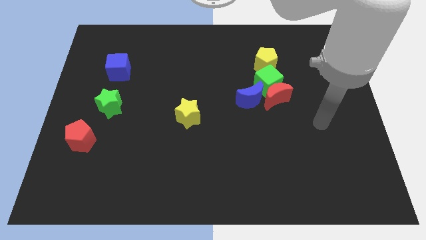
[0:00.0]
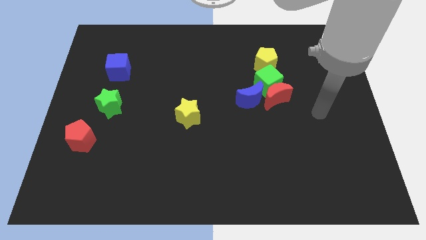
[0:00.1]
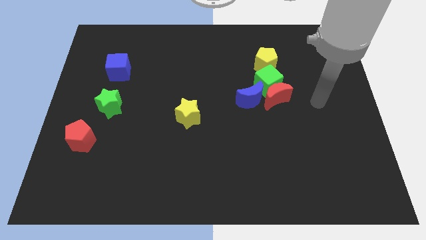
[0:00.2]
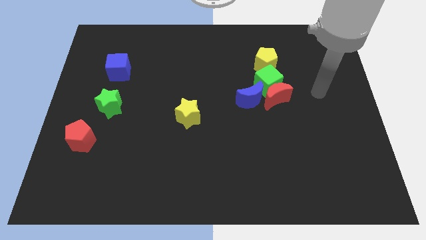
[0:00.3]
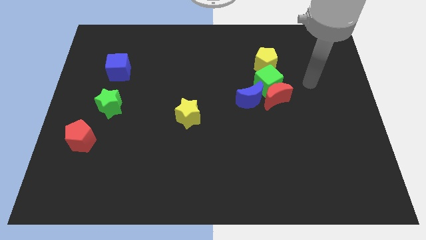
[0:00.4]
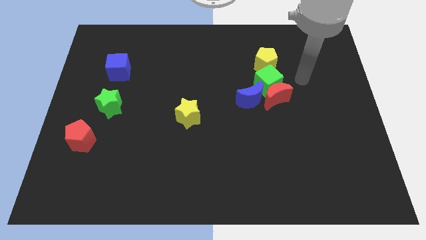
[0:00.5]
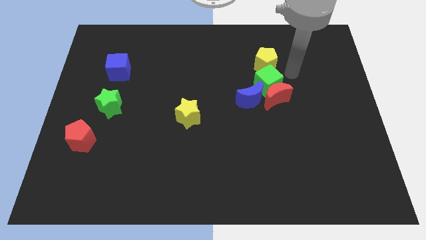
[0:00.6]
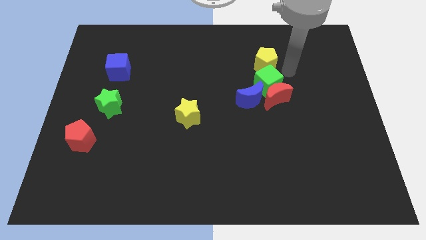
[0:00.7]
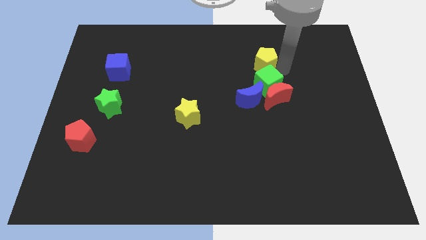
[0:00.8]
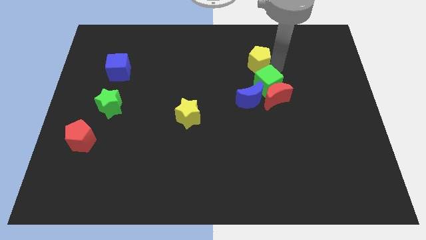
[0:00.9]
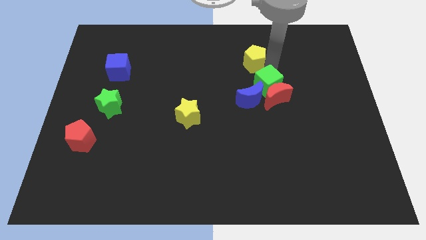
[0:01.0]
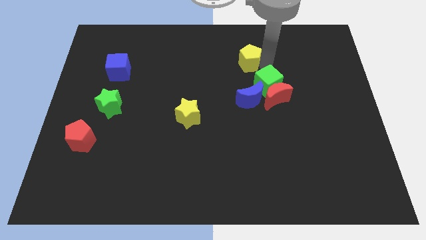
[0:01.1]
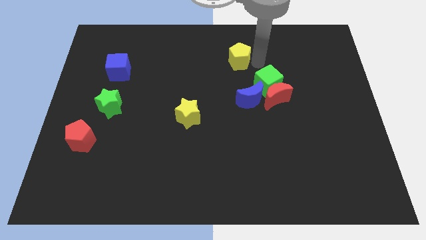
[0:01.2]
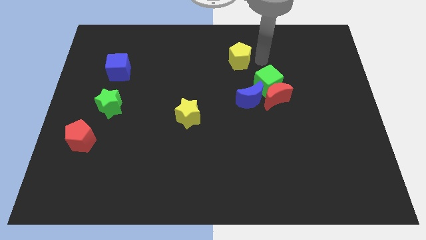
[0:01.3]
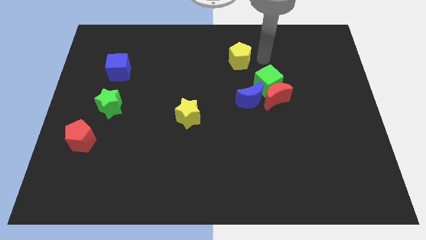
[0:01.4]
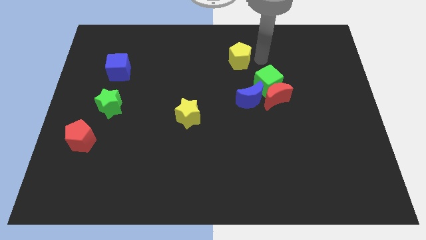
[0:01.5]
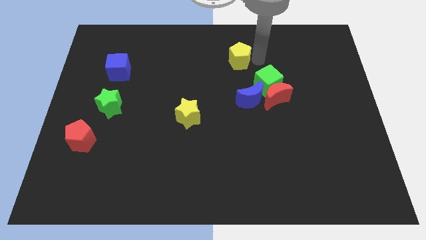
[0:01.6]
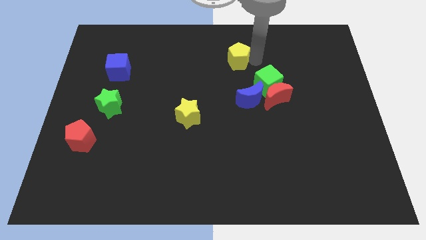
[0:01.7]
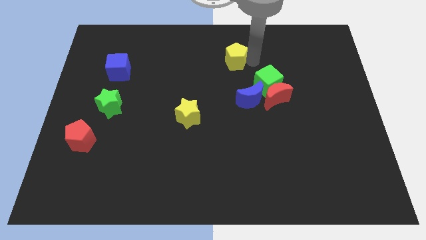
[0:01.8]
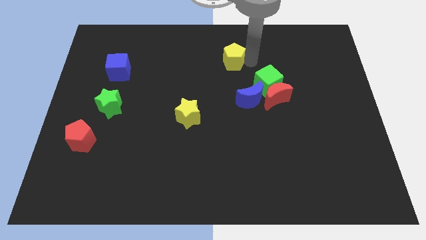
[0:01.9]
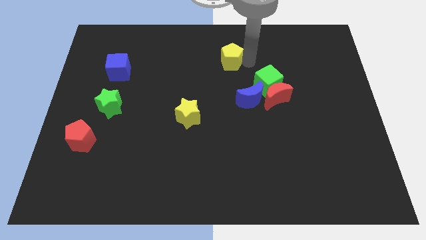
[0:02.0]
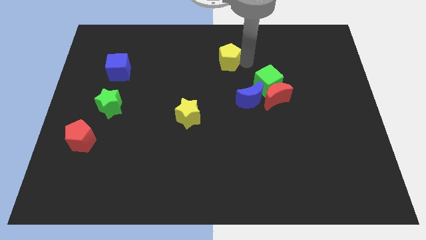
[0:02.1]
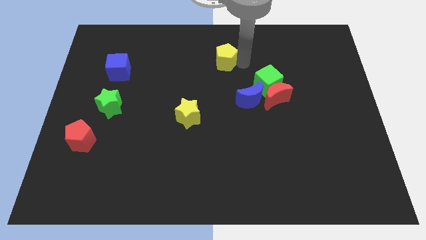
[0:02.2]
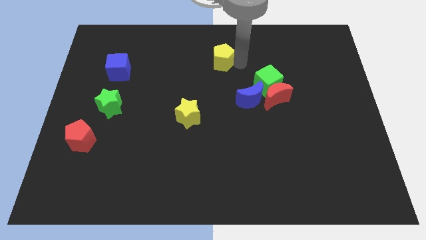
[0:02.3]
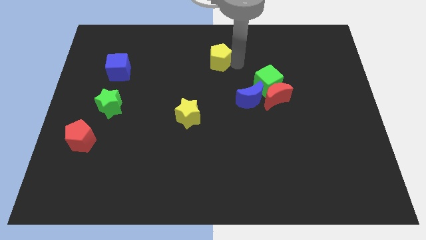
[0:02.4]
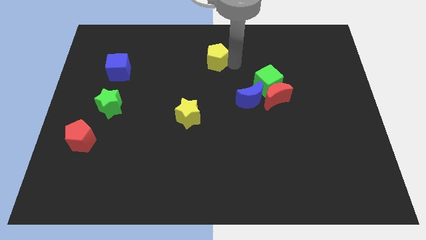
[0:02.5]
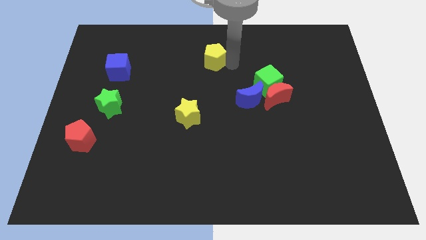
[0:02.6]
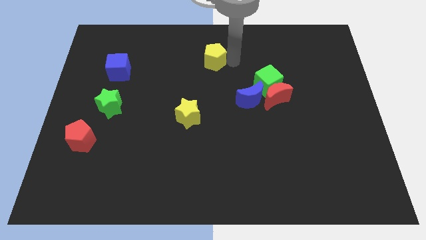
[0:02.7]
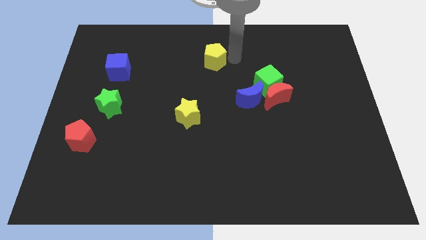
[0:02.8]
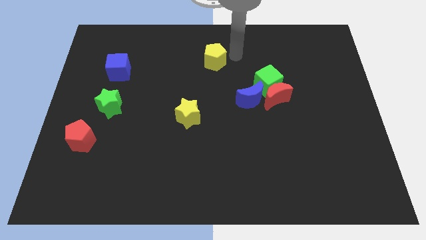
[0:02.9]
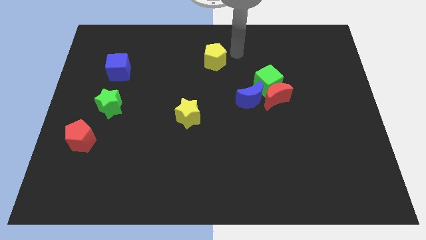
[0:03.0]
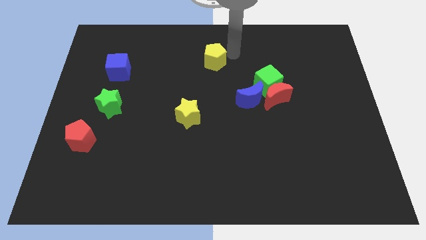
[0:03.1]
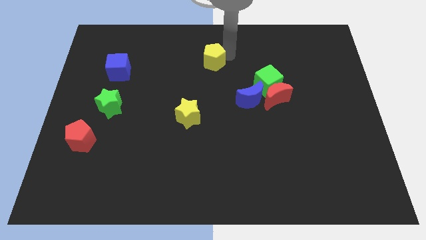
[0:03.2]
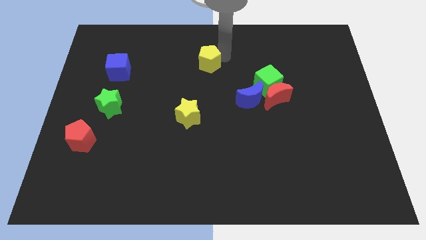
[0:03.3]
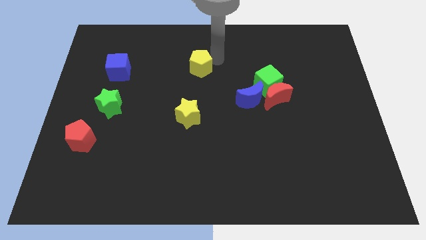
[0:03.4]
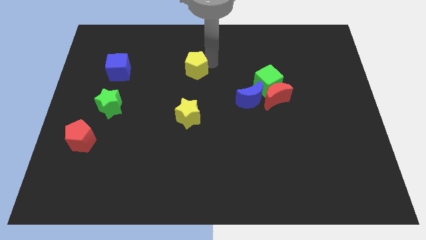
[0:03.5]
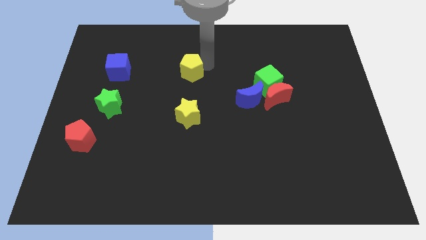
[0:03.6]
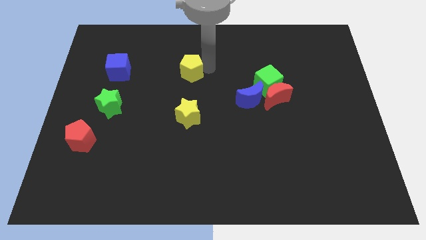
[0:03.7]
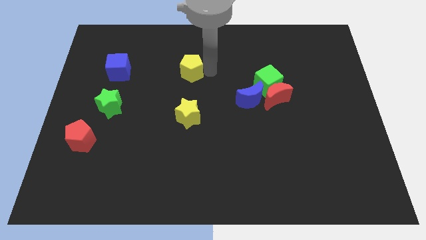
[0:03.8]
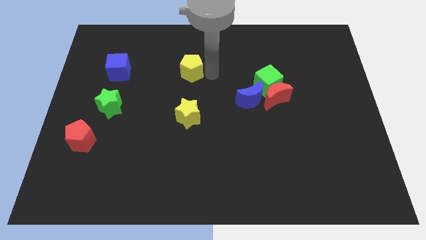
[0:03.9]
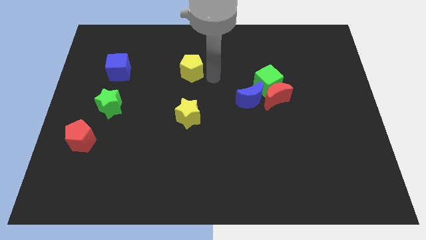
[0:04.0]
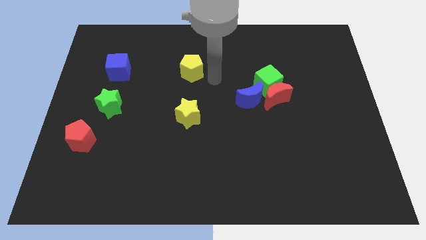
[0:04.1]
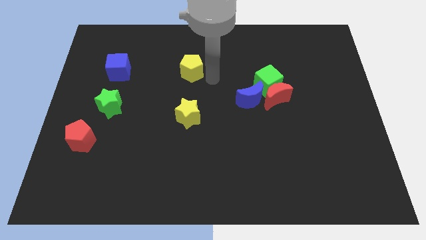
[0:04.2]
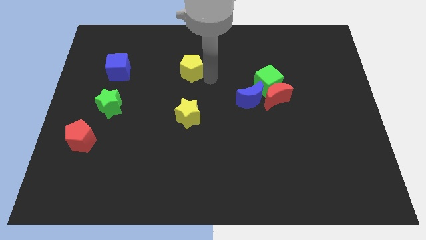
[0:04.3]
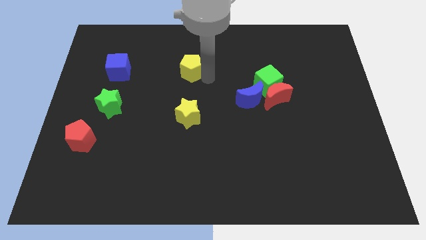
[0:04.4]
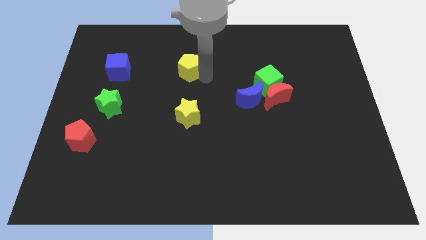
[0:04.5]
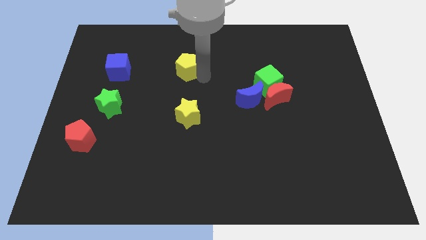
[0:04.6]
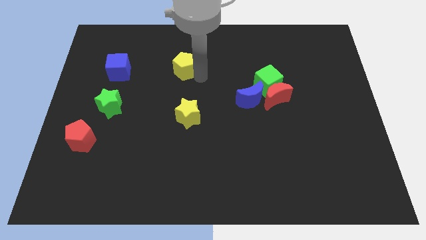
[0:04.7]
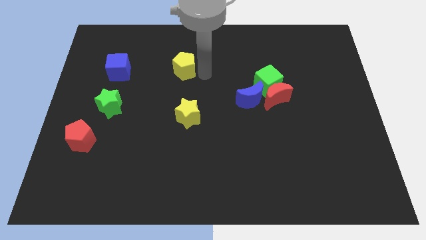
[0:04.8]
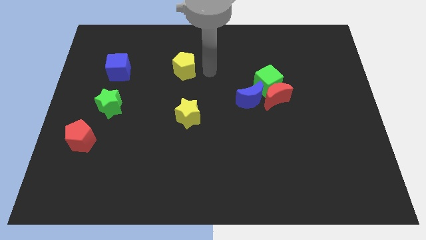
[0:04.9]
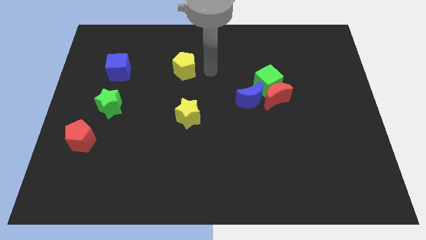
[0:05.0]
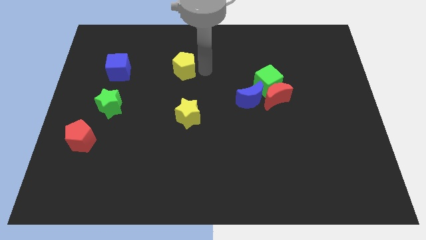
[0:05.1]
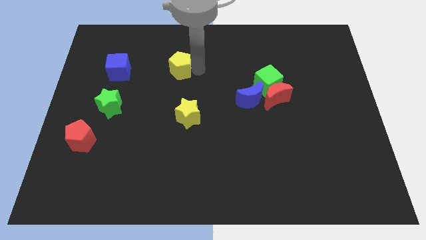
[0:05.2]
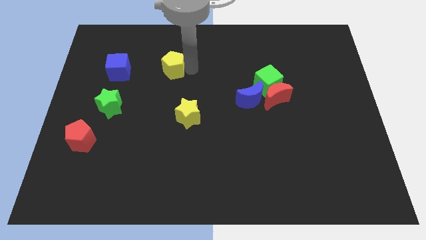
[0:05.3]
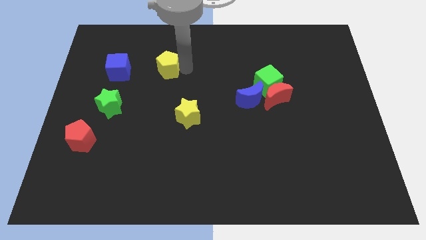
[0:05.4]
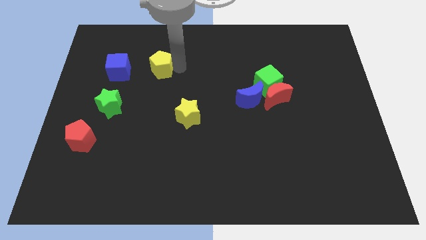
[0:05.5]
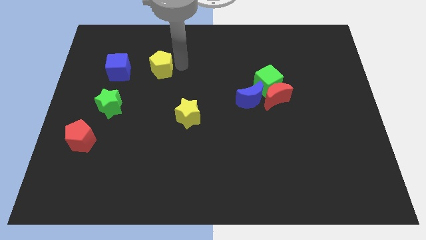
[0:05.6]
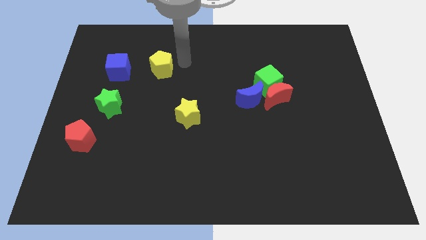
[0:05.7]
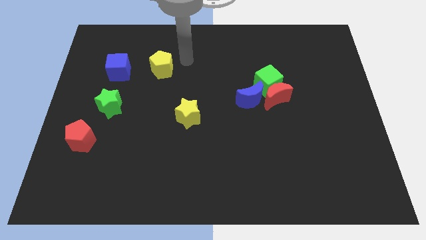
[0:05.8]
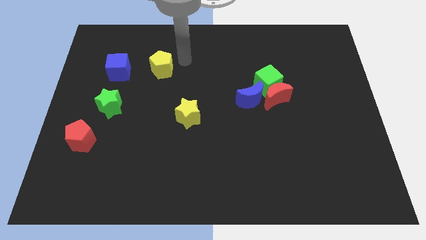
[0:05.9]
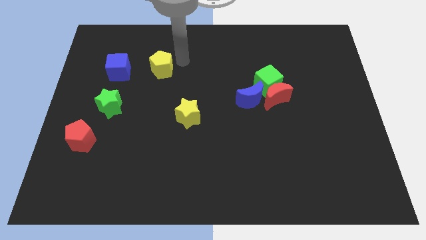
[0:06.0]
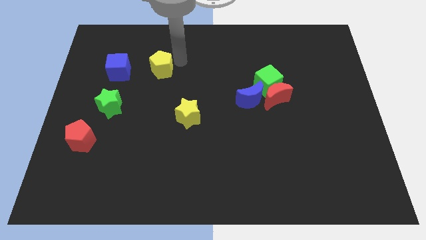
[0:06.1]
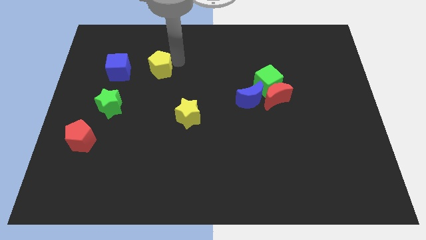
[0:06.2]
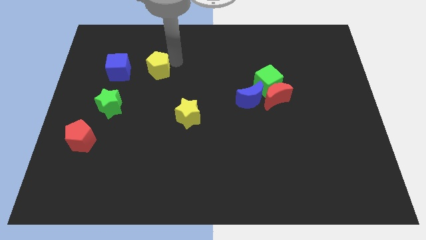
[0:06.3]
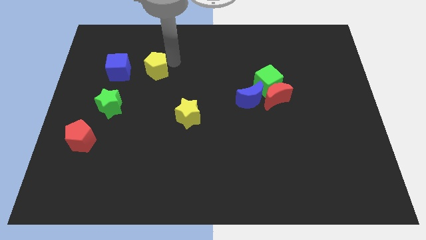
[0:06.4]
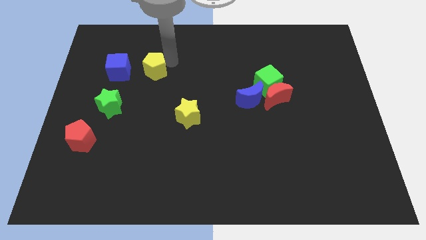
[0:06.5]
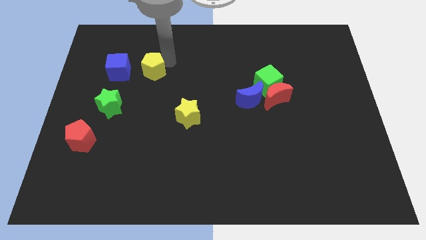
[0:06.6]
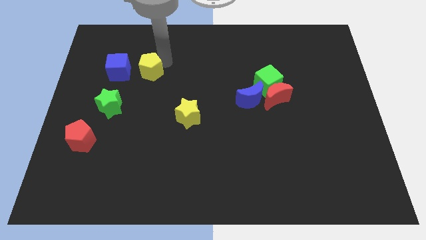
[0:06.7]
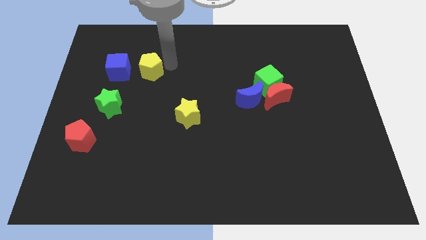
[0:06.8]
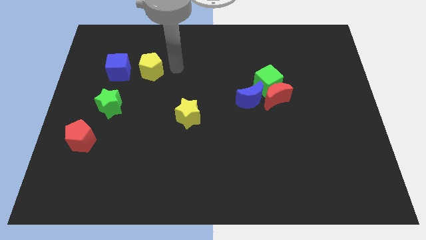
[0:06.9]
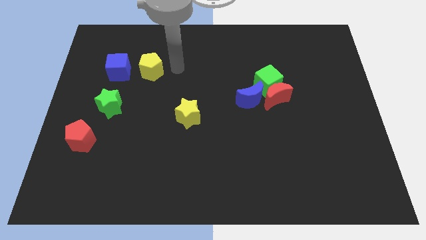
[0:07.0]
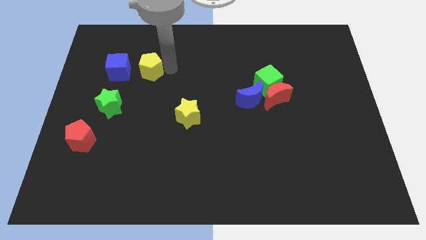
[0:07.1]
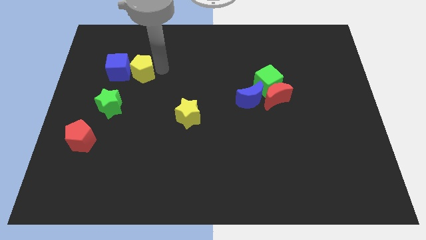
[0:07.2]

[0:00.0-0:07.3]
move the yellow pentagon close to the blue cube

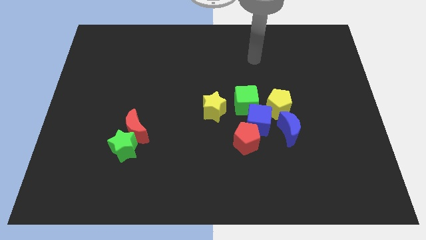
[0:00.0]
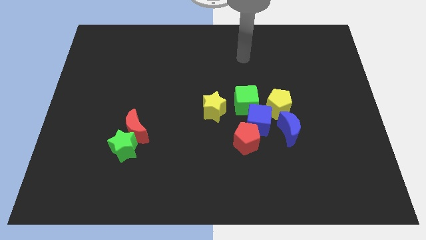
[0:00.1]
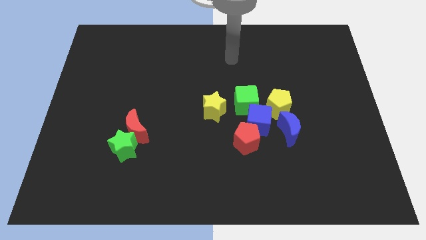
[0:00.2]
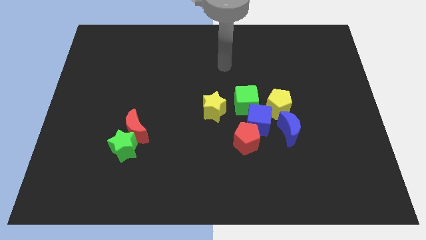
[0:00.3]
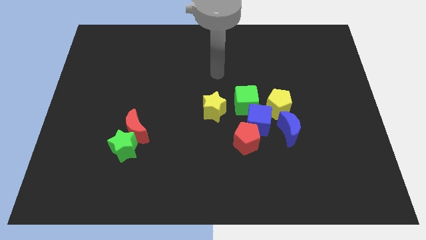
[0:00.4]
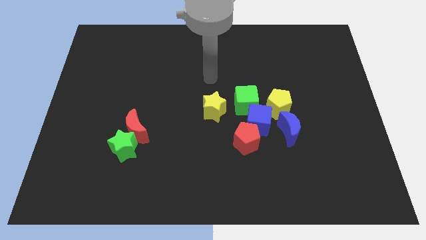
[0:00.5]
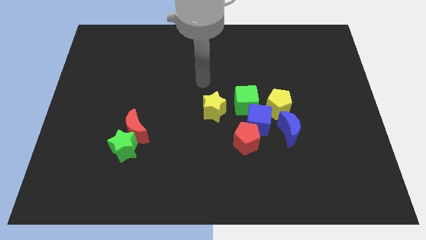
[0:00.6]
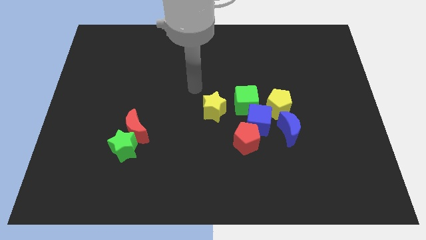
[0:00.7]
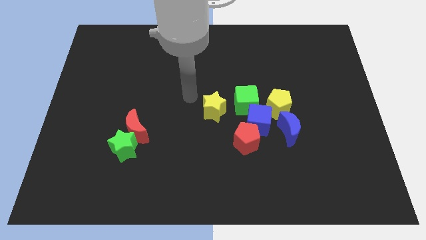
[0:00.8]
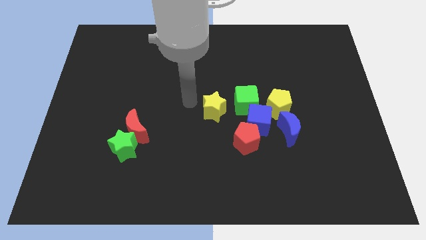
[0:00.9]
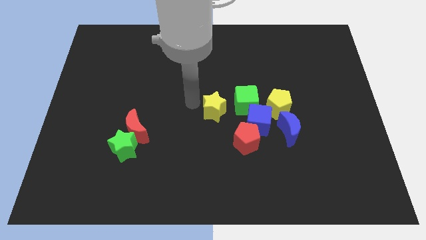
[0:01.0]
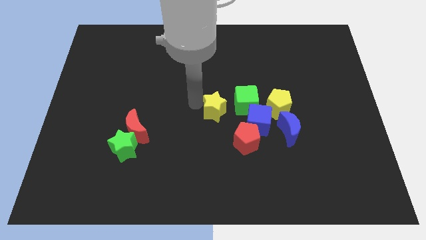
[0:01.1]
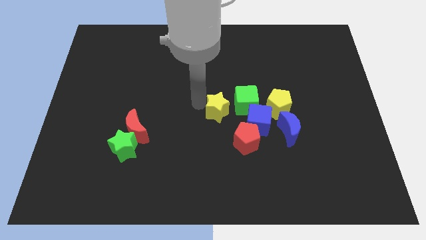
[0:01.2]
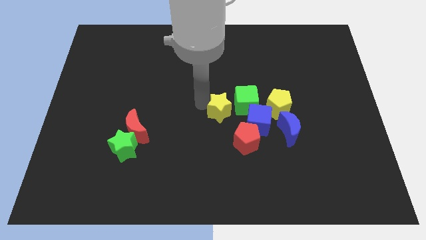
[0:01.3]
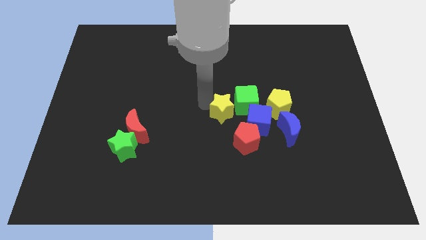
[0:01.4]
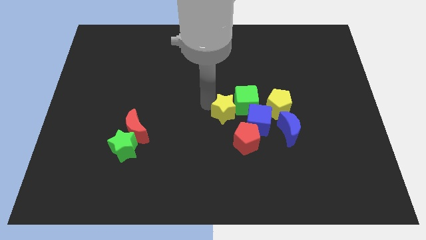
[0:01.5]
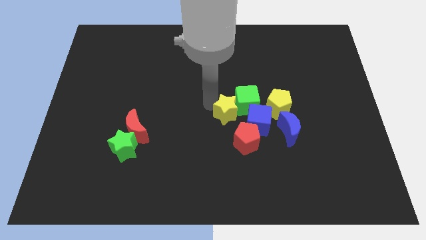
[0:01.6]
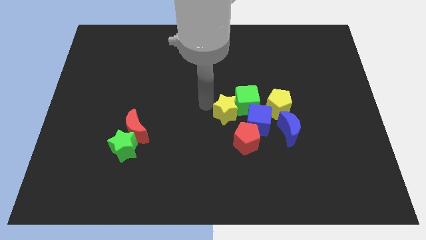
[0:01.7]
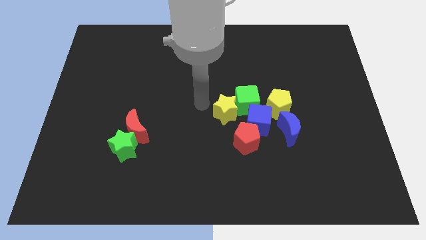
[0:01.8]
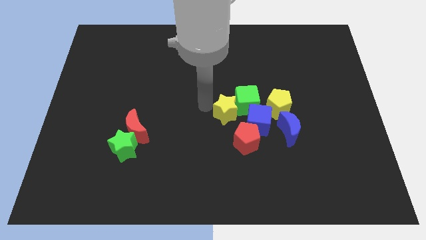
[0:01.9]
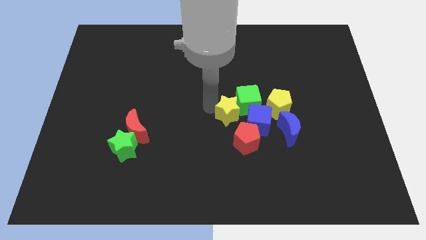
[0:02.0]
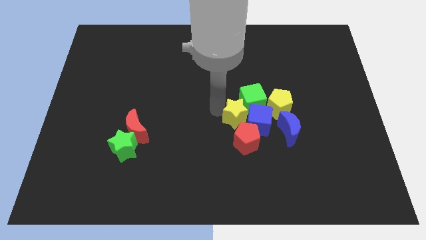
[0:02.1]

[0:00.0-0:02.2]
put the yellow star close to the blue cube
